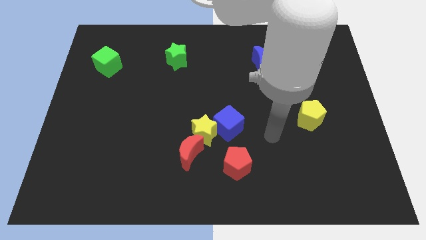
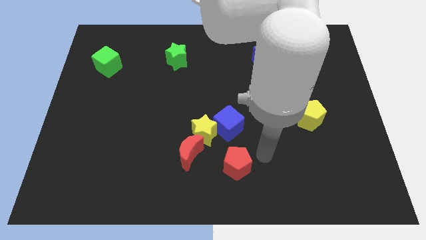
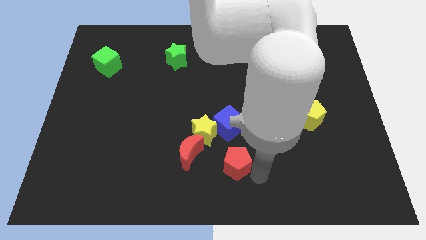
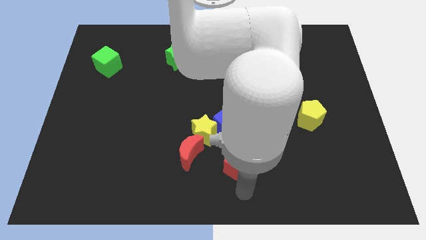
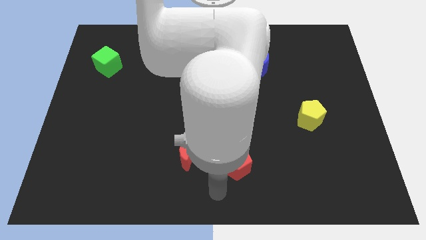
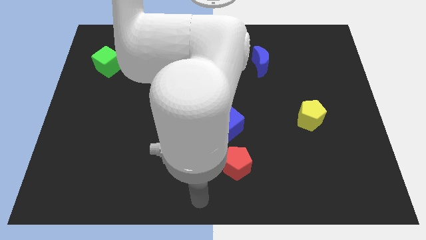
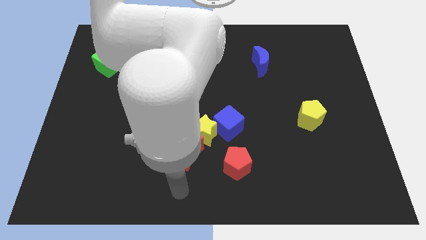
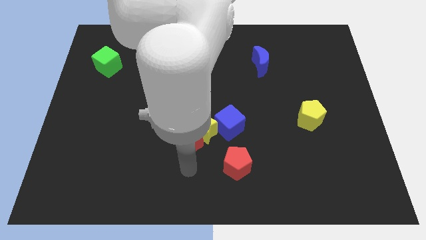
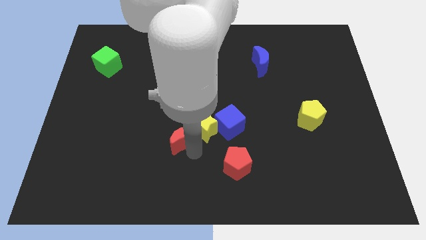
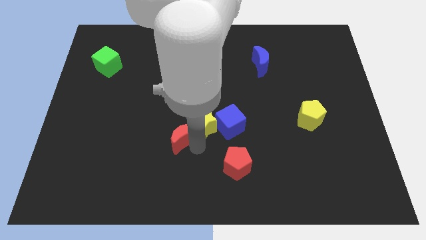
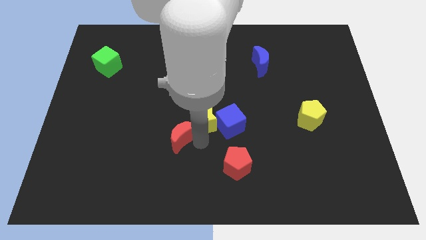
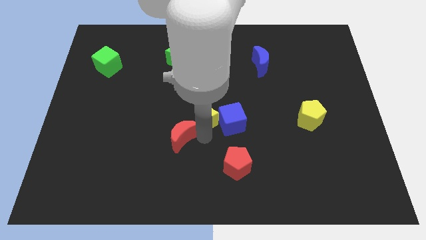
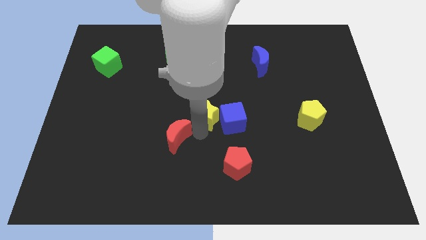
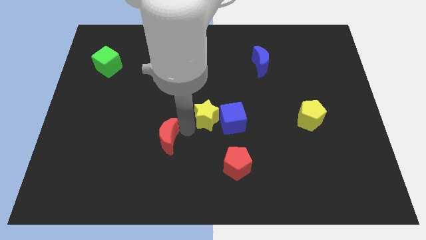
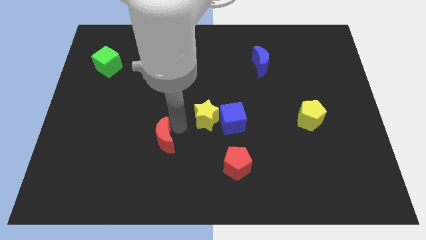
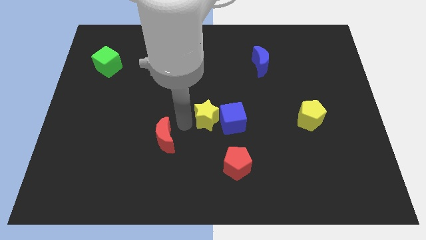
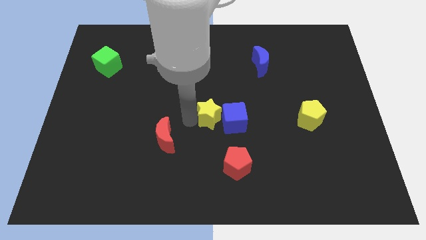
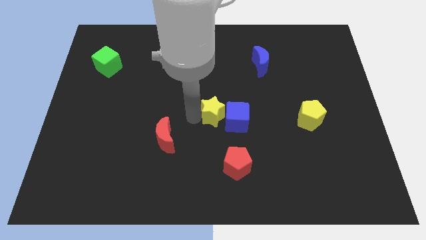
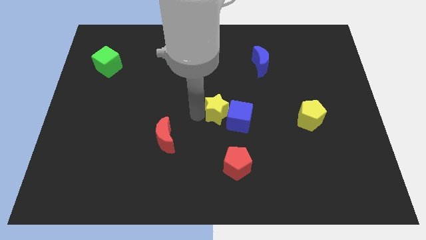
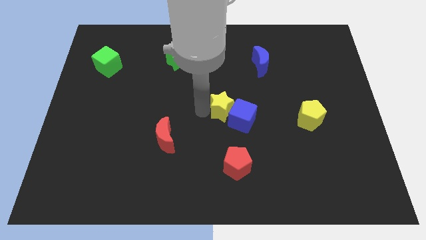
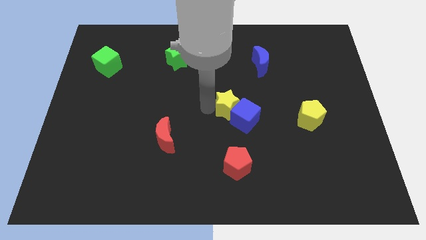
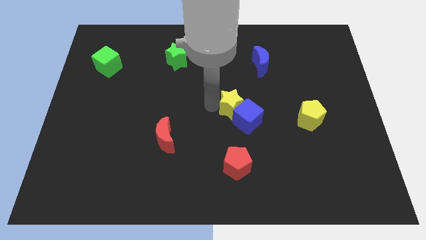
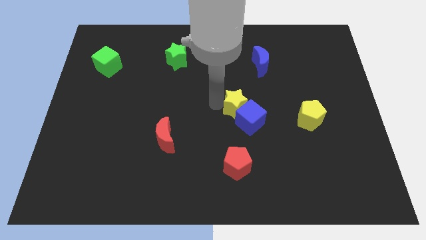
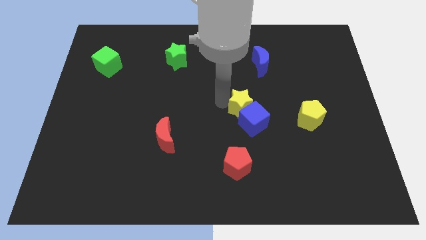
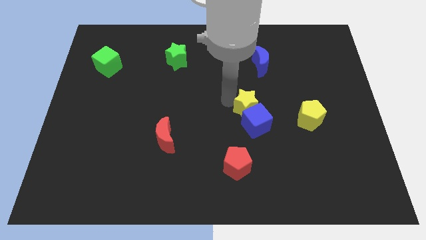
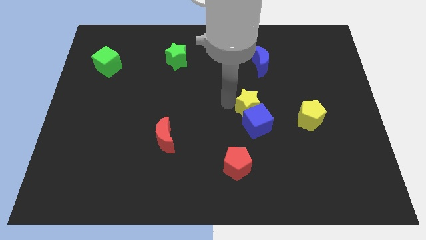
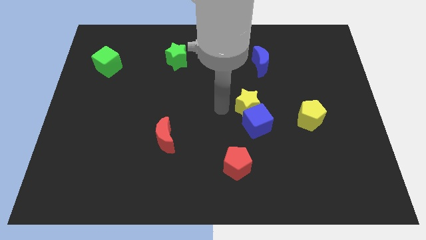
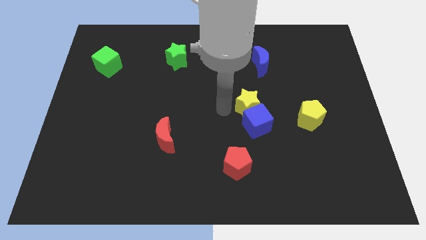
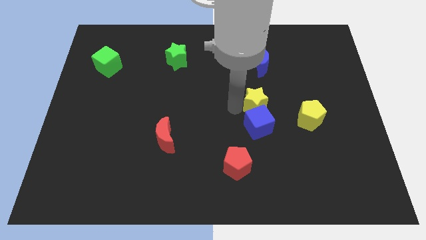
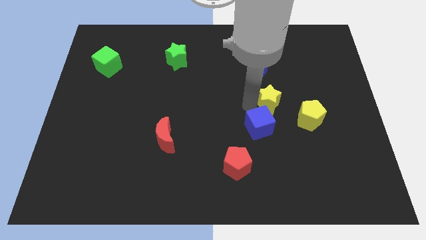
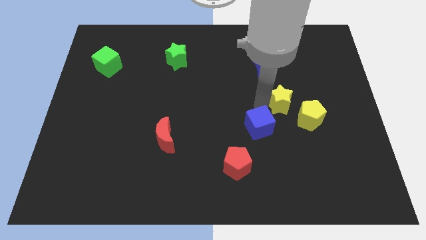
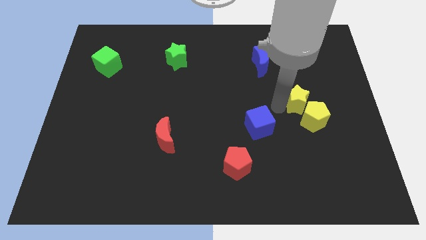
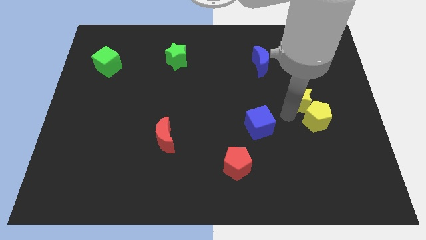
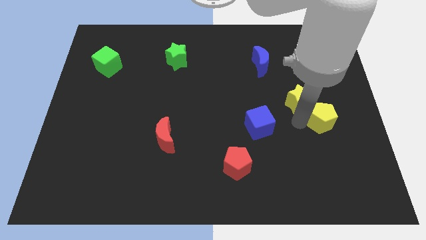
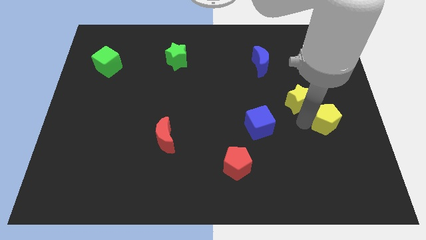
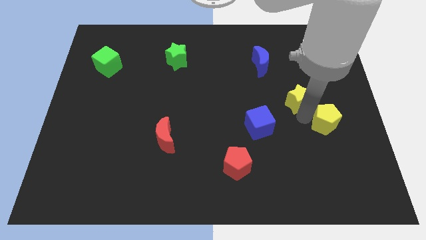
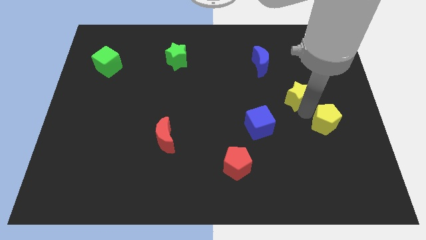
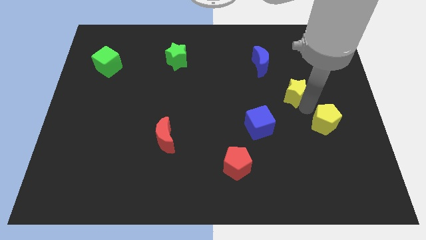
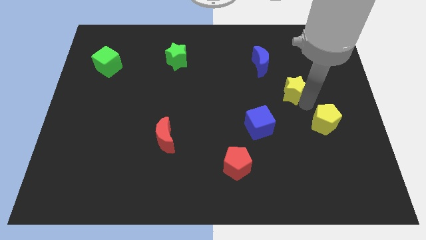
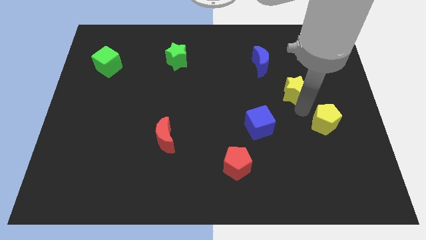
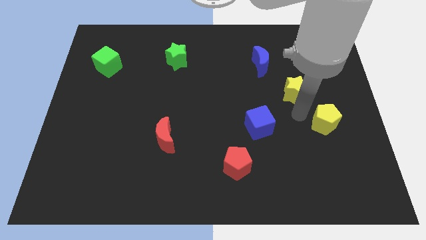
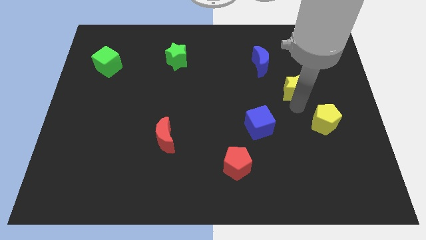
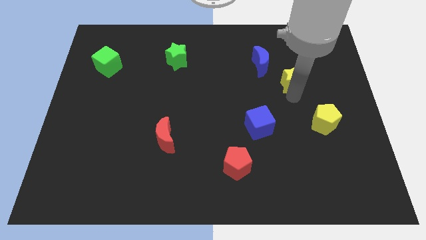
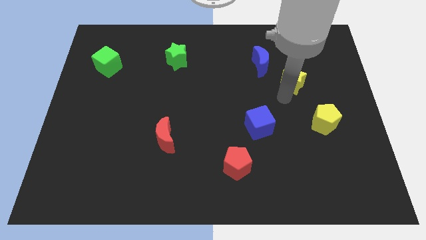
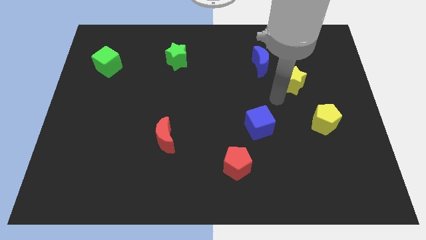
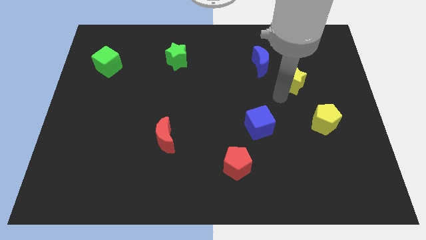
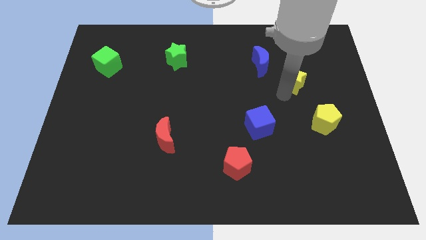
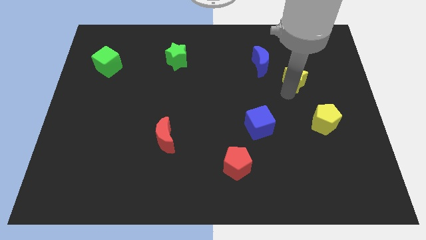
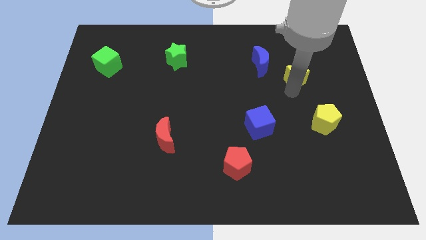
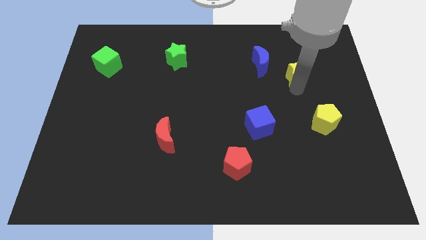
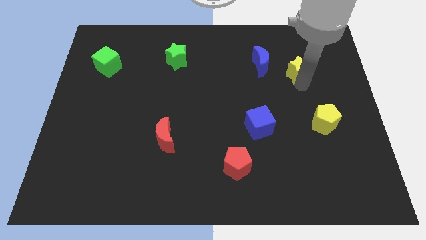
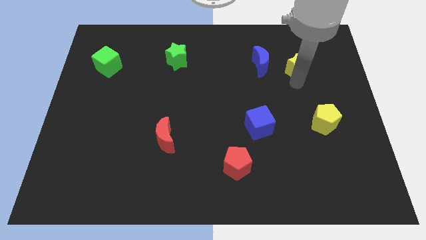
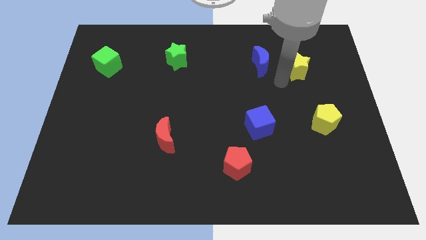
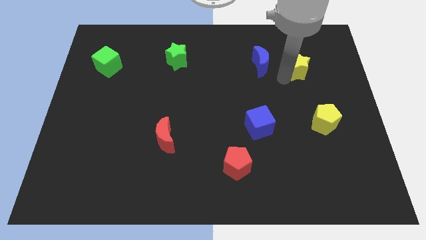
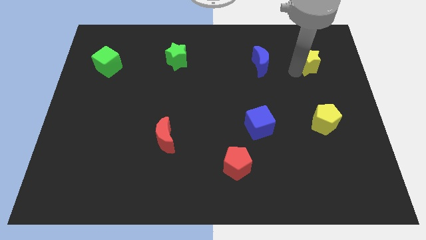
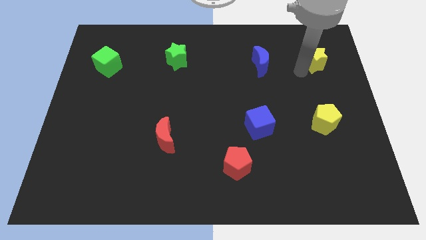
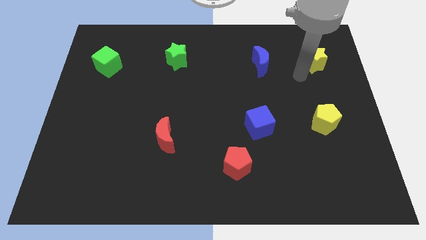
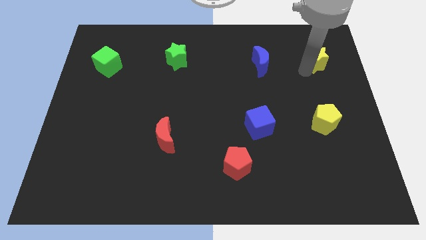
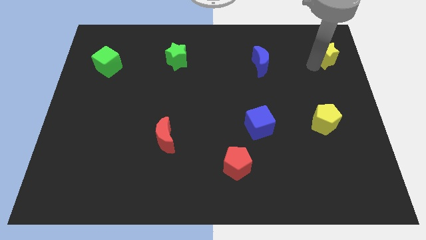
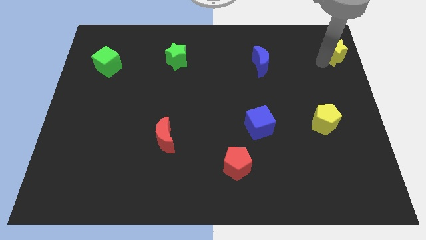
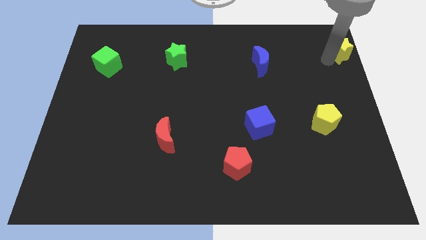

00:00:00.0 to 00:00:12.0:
move the yellow star to the top right corner

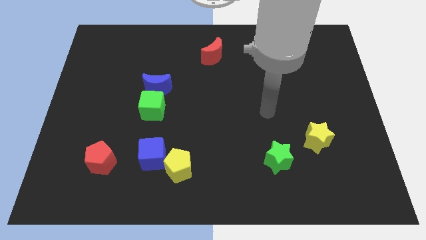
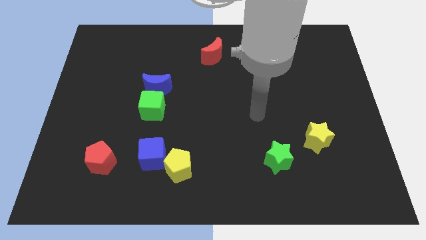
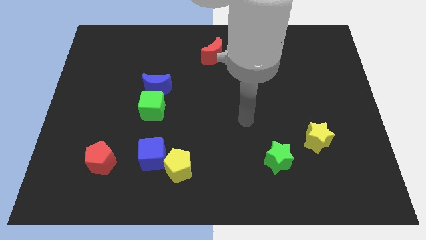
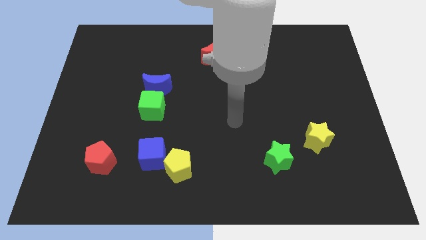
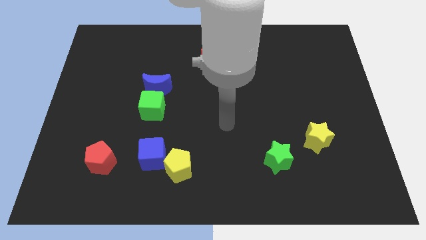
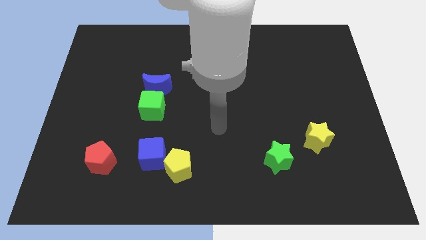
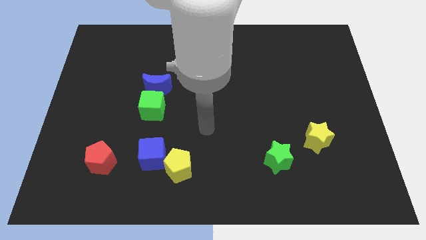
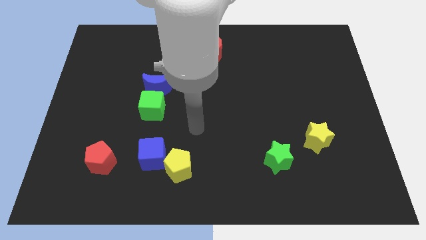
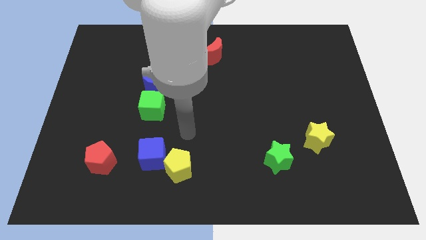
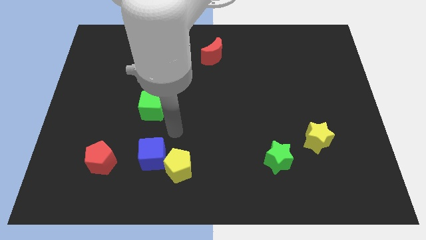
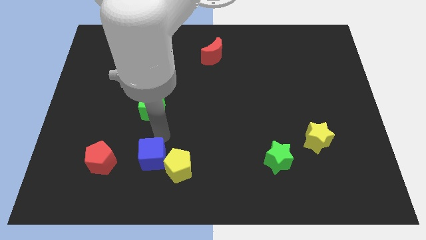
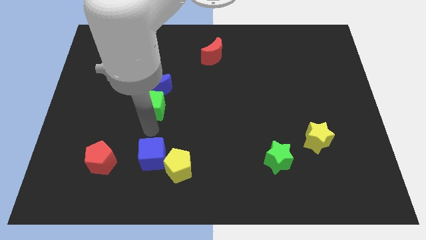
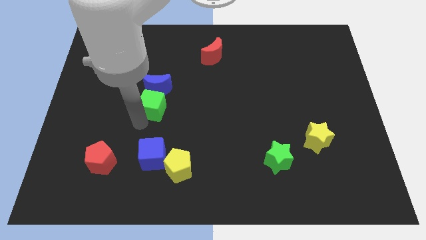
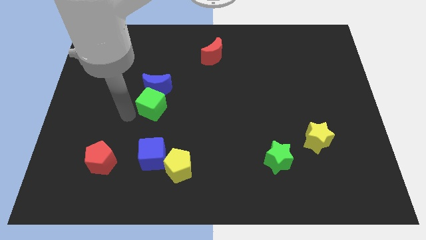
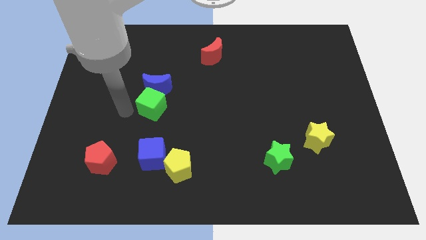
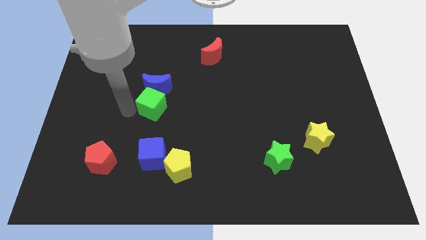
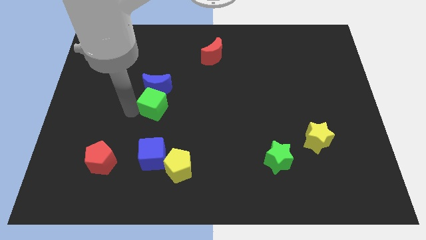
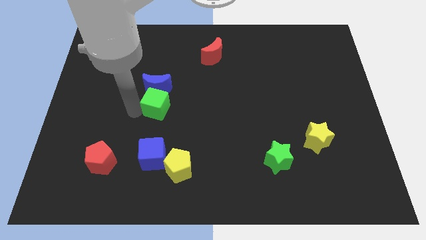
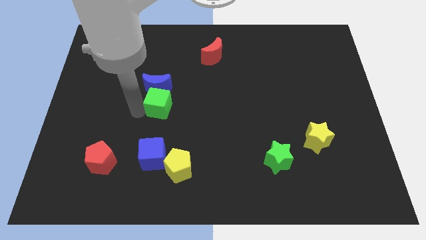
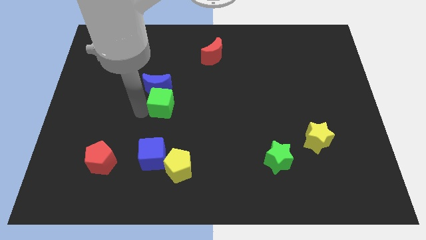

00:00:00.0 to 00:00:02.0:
put the green cube to the middle
